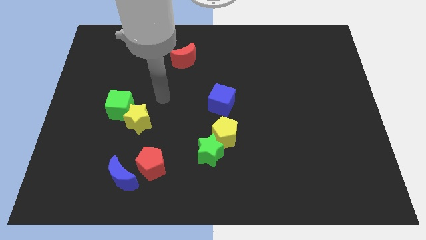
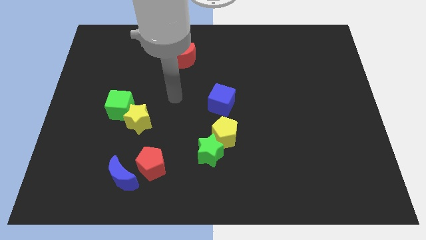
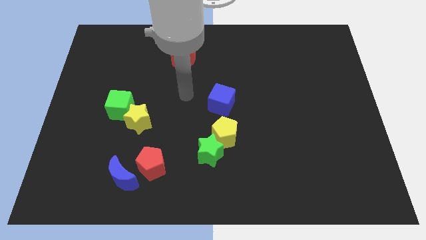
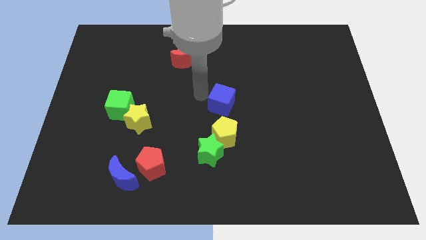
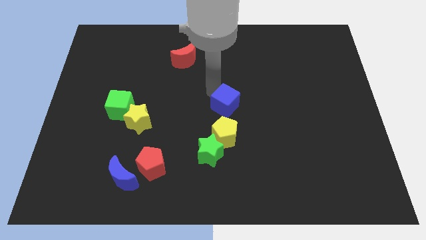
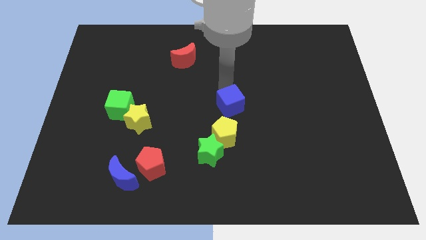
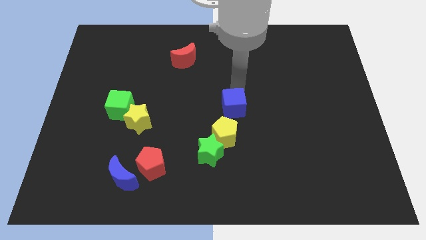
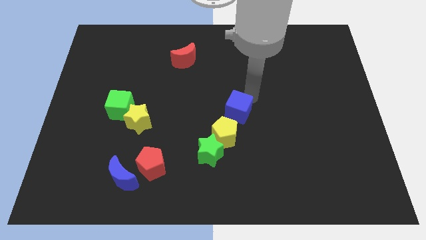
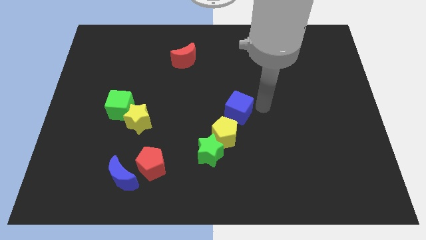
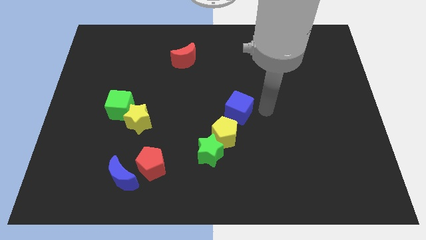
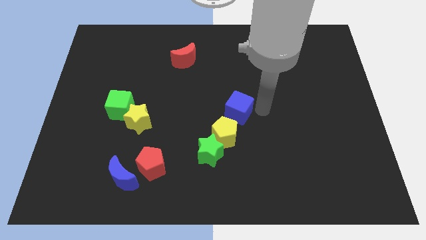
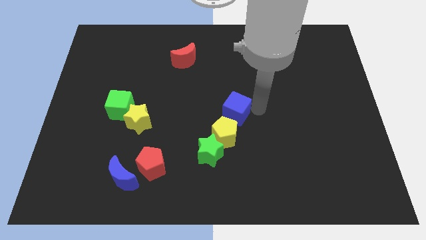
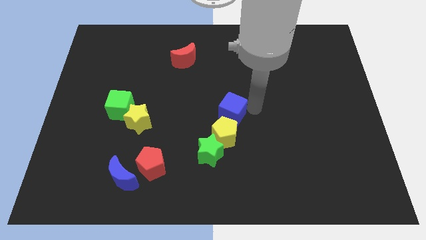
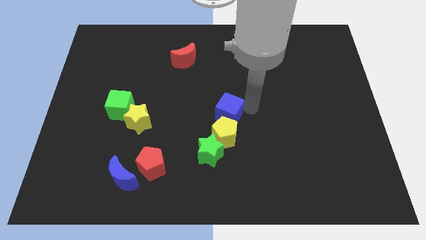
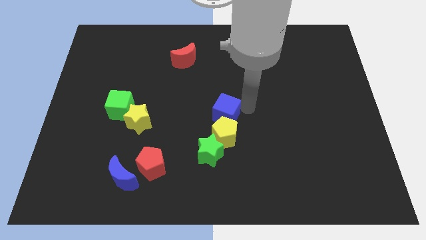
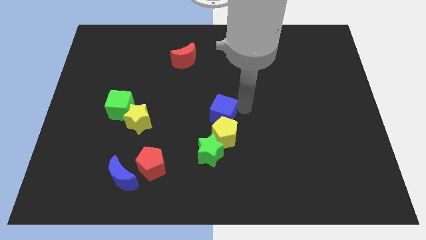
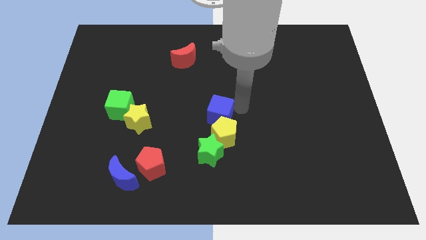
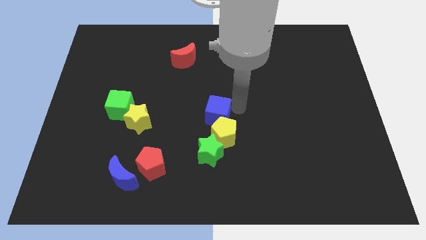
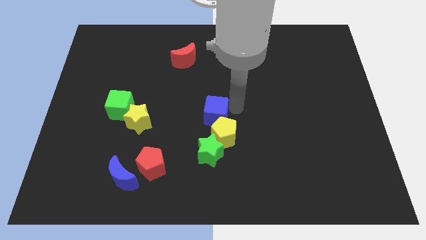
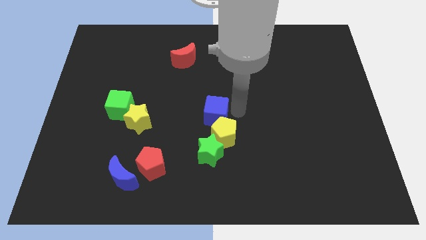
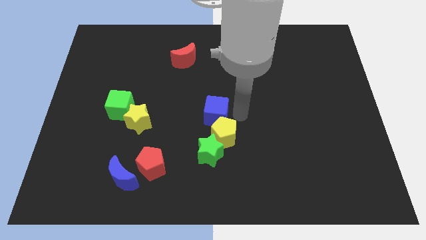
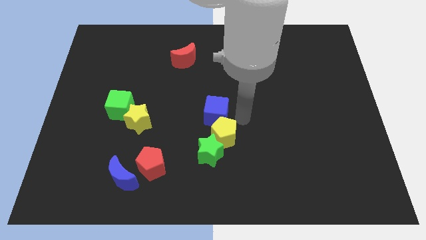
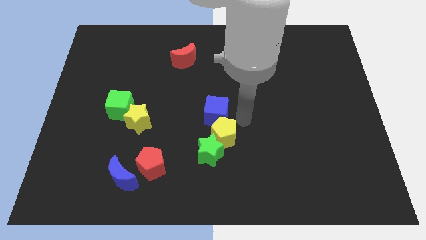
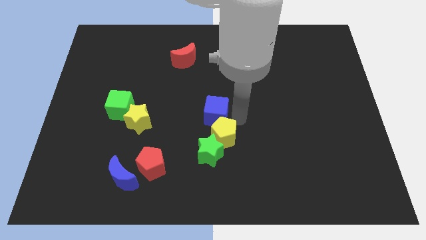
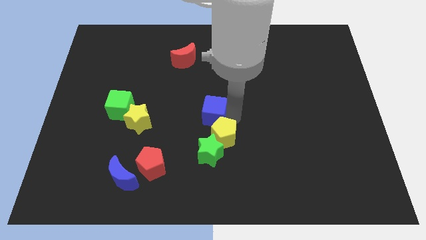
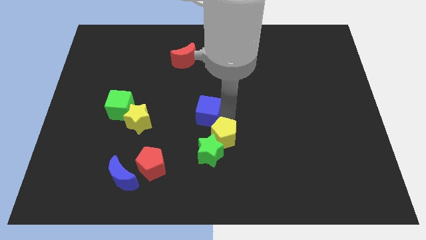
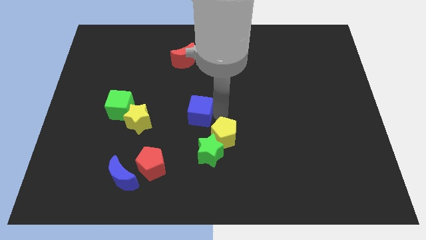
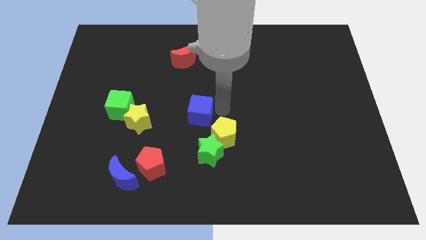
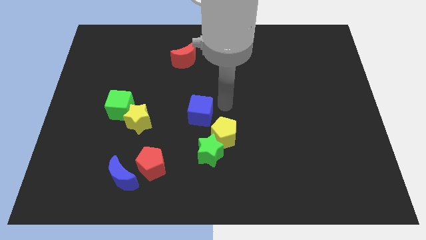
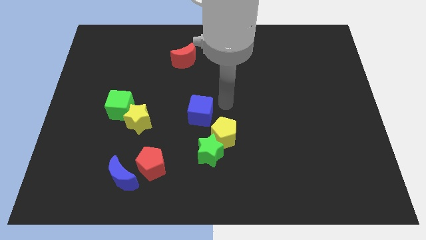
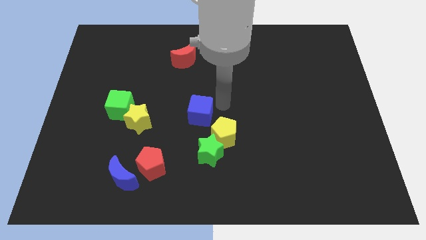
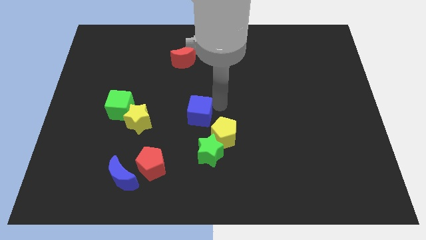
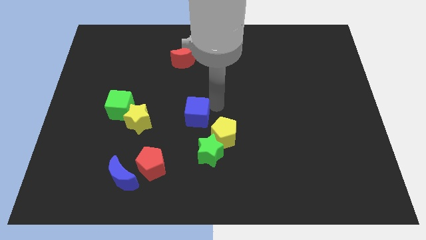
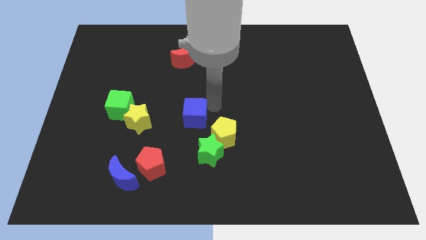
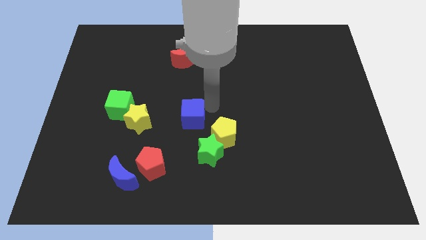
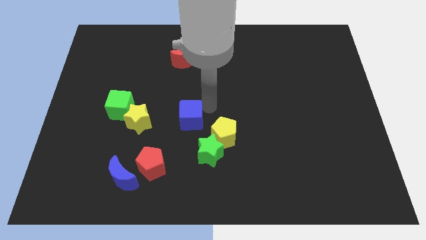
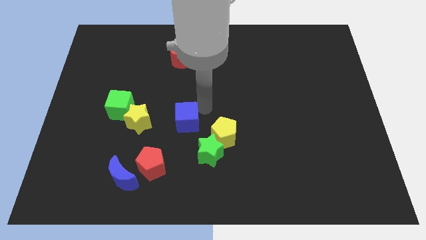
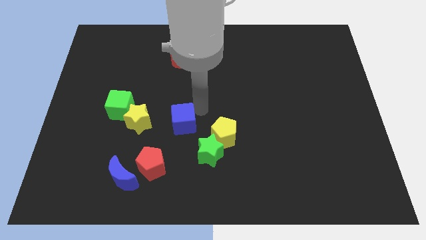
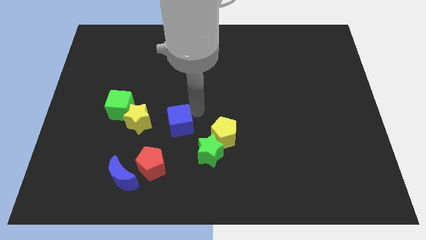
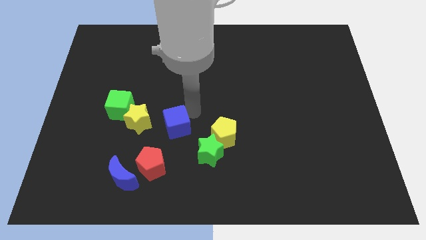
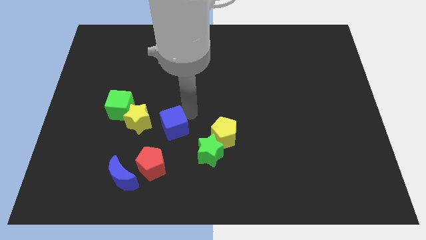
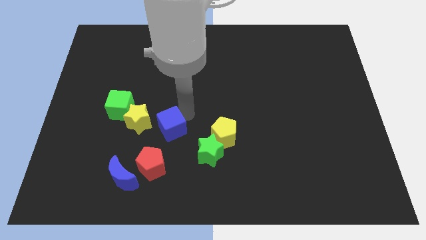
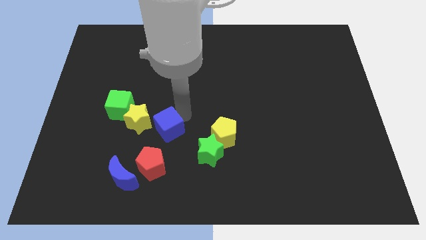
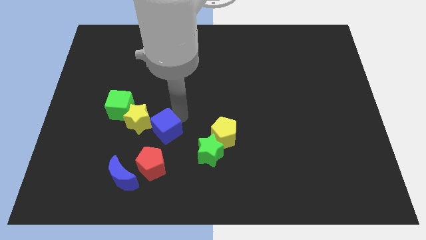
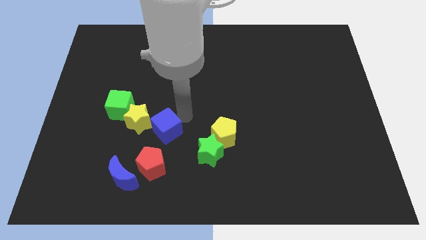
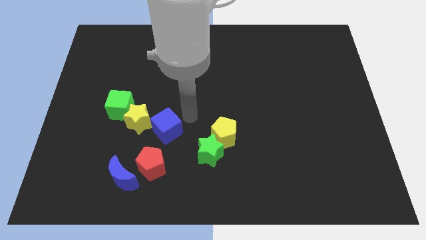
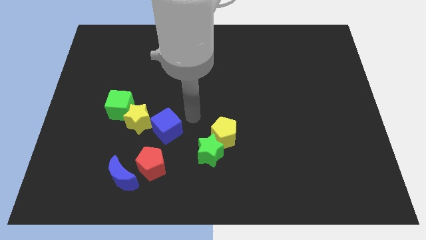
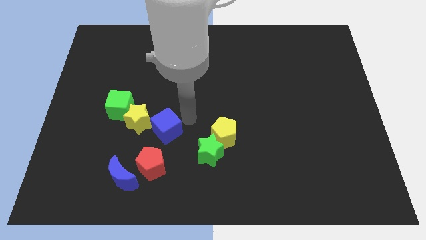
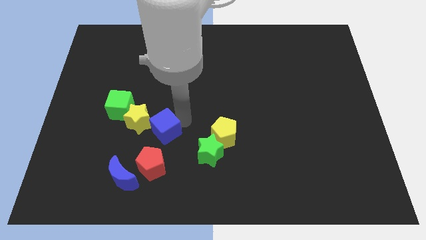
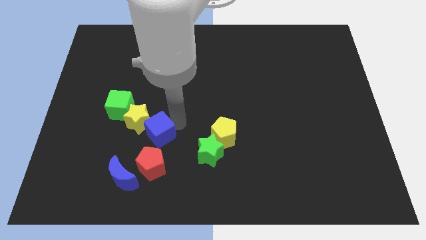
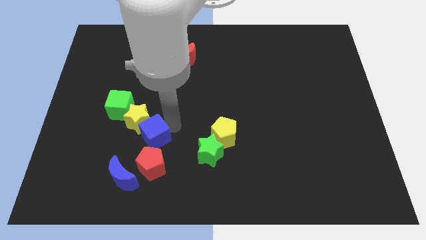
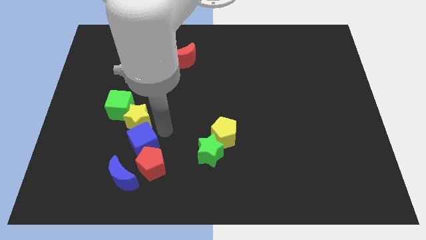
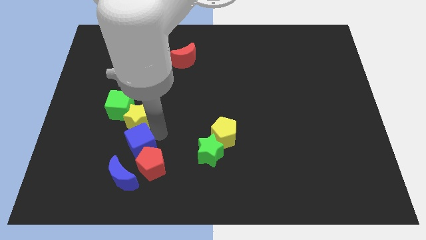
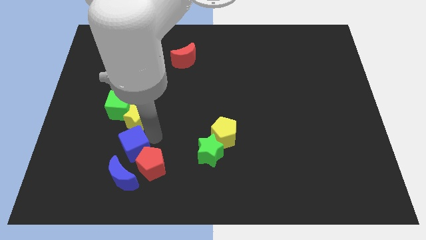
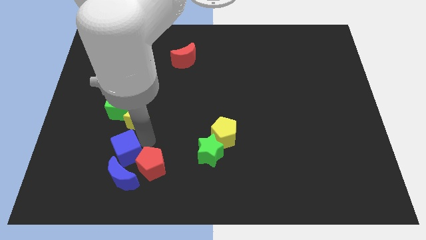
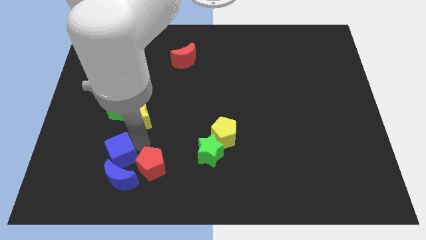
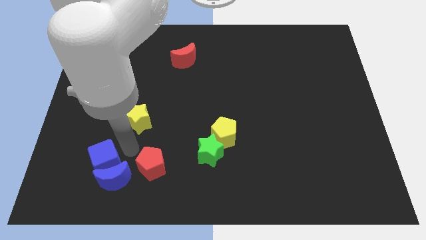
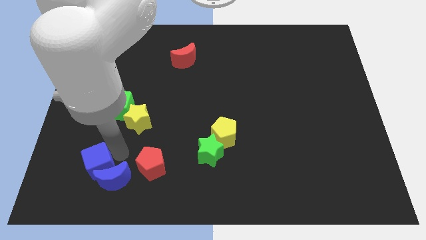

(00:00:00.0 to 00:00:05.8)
put the blue cube to the left of the blue moon
